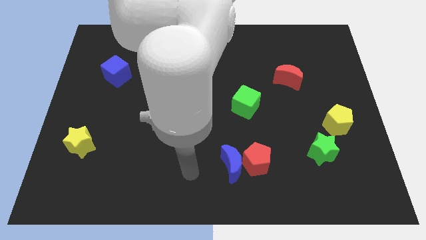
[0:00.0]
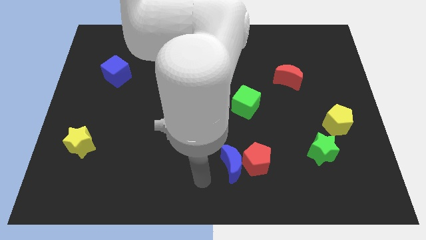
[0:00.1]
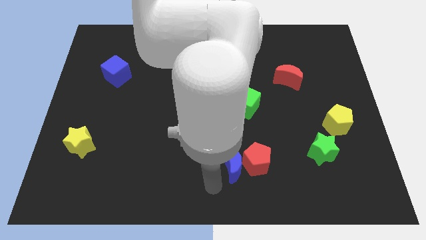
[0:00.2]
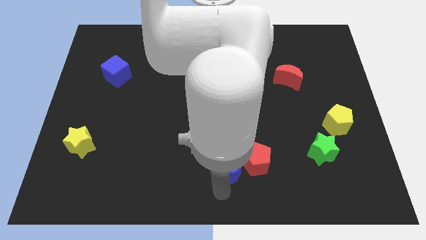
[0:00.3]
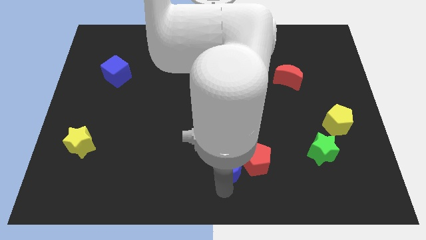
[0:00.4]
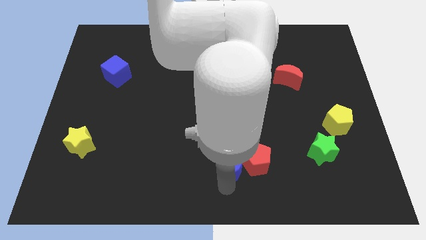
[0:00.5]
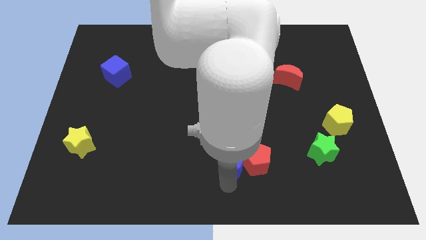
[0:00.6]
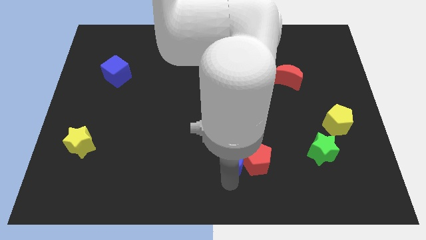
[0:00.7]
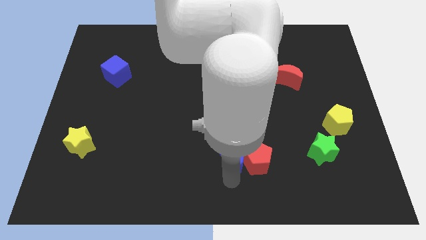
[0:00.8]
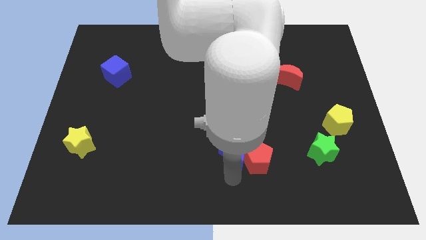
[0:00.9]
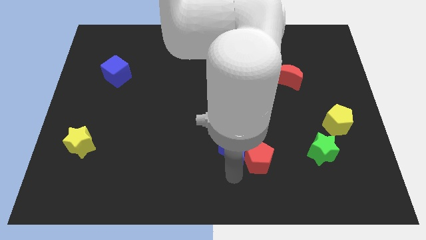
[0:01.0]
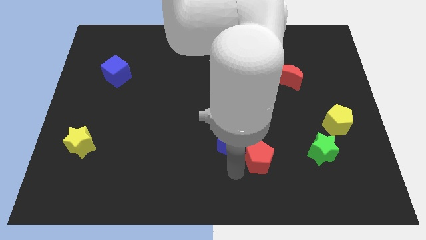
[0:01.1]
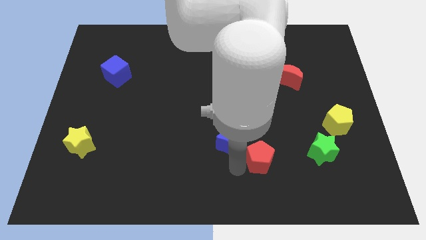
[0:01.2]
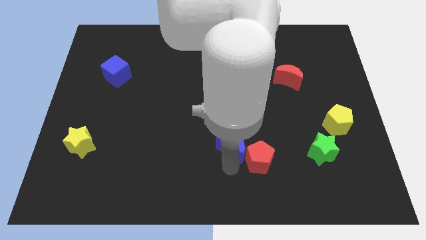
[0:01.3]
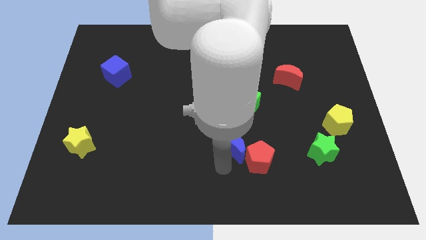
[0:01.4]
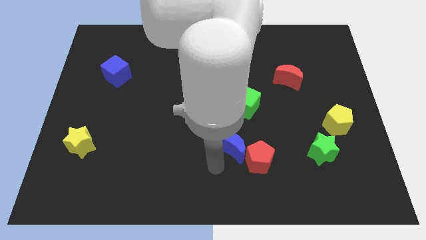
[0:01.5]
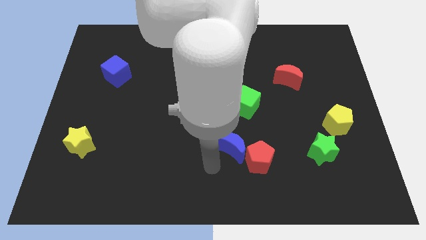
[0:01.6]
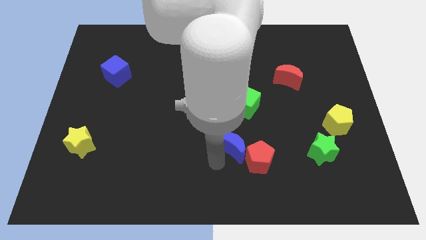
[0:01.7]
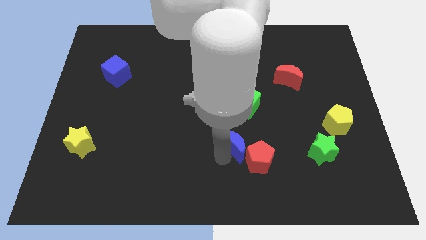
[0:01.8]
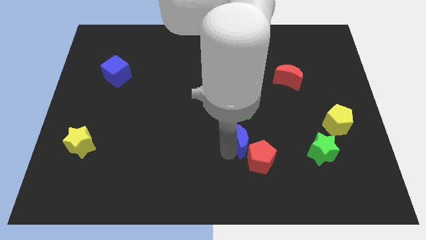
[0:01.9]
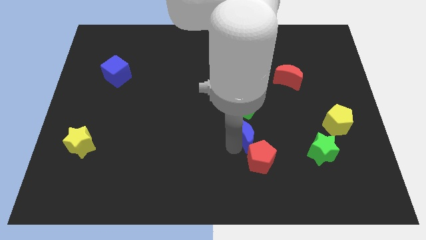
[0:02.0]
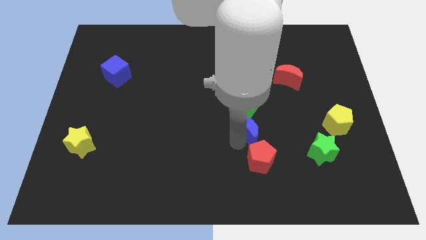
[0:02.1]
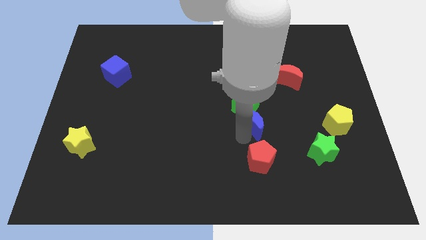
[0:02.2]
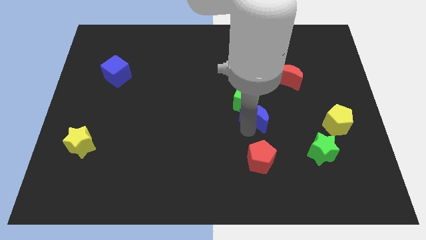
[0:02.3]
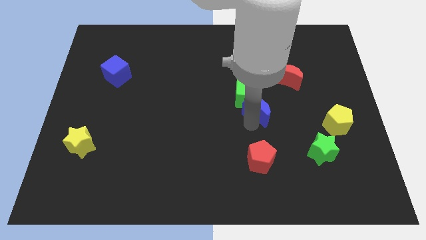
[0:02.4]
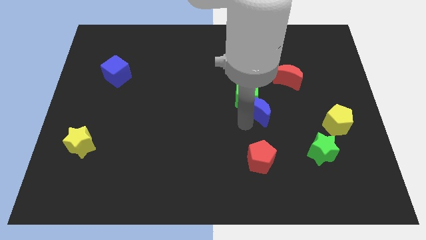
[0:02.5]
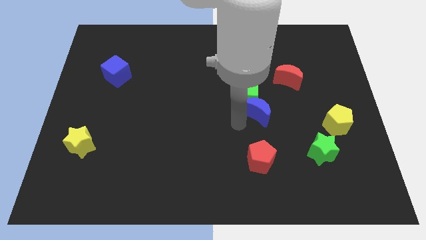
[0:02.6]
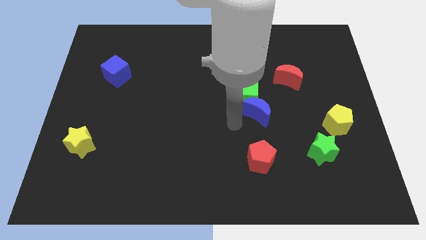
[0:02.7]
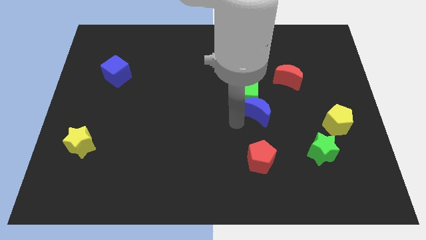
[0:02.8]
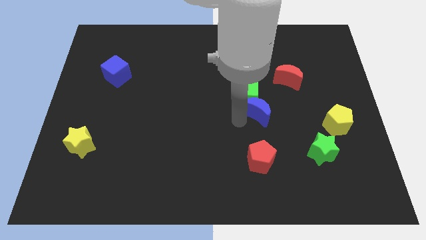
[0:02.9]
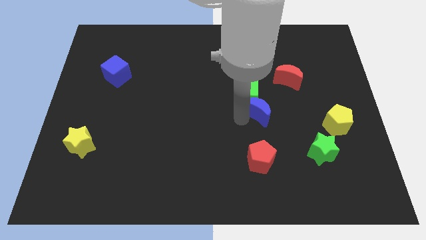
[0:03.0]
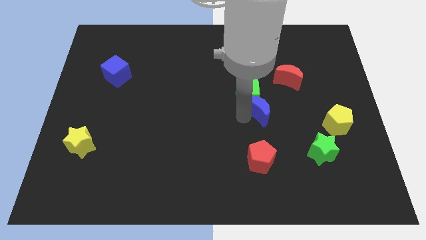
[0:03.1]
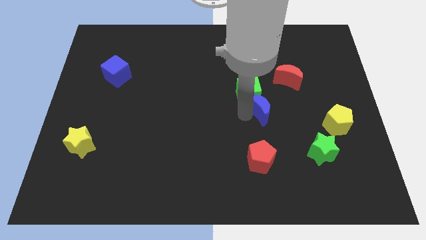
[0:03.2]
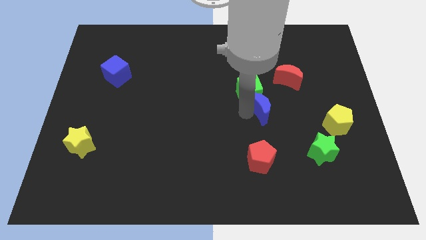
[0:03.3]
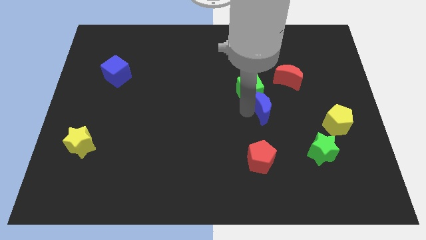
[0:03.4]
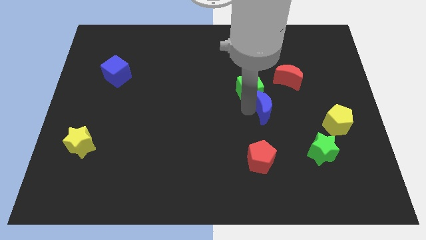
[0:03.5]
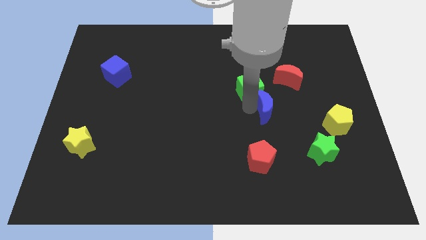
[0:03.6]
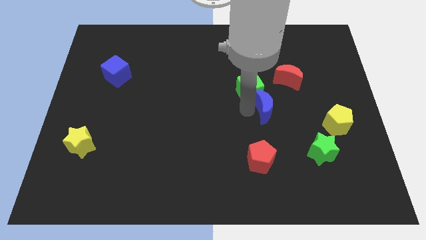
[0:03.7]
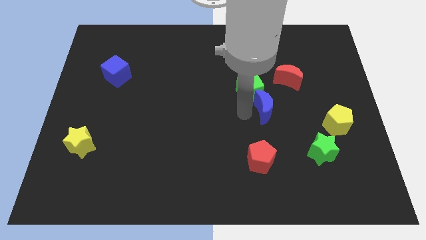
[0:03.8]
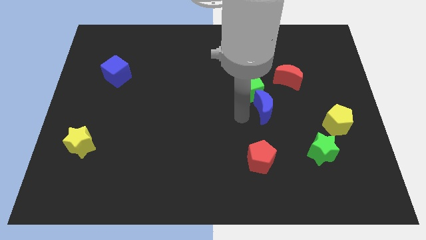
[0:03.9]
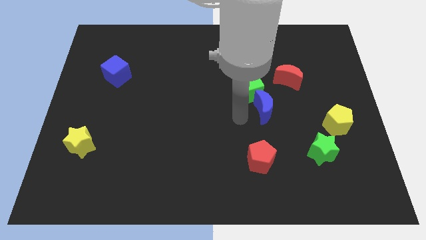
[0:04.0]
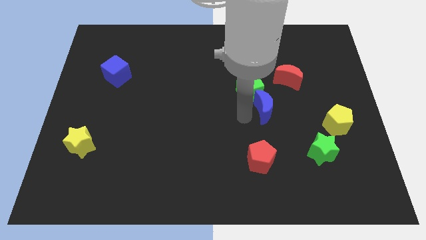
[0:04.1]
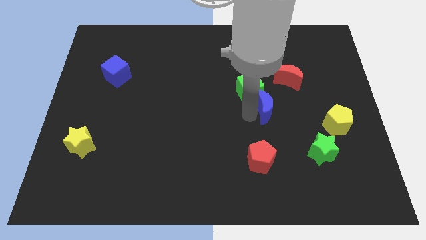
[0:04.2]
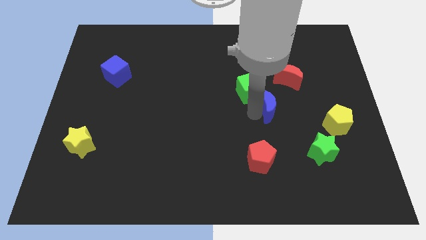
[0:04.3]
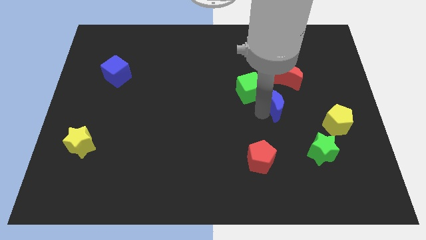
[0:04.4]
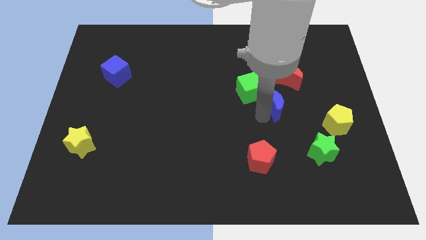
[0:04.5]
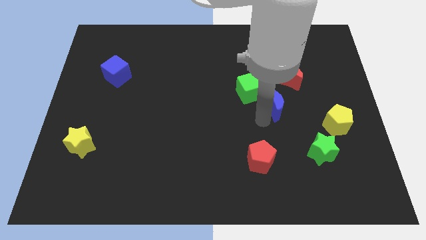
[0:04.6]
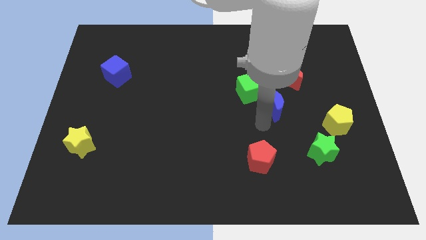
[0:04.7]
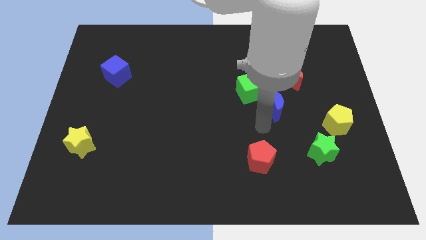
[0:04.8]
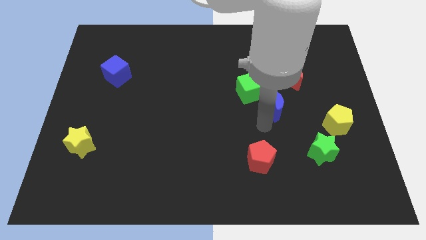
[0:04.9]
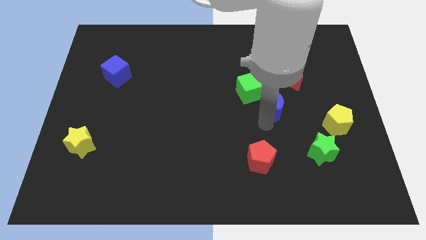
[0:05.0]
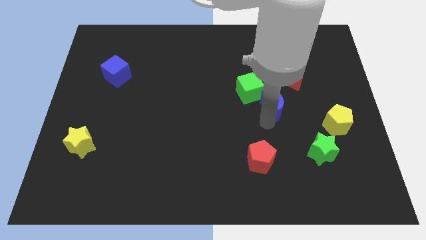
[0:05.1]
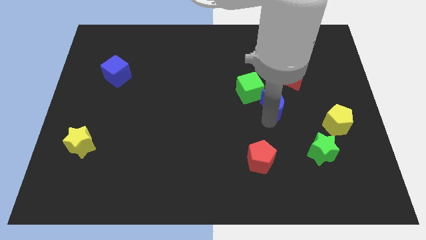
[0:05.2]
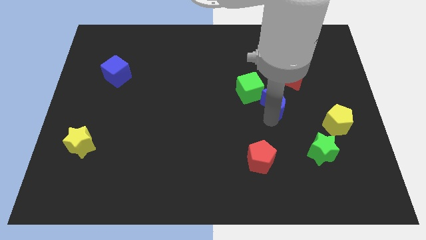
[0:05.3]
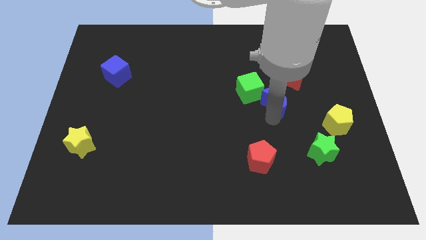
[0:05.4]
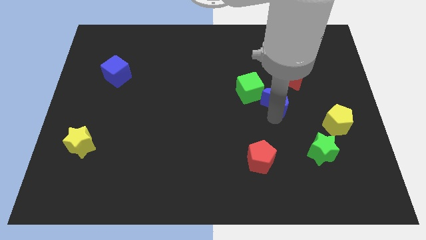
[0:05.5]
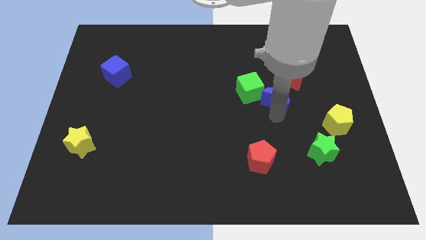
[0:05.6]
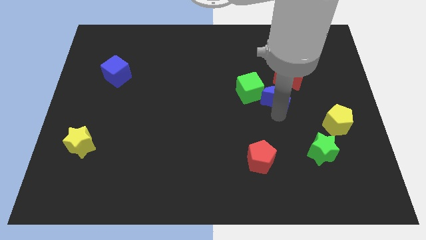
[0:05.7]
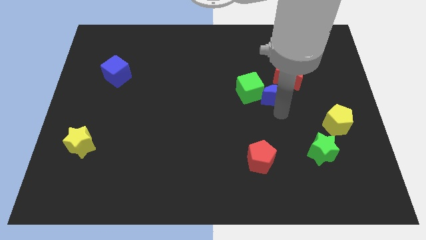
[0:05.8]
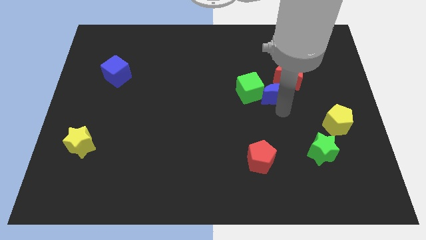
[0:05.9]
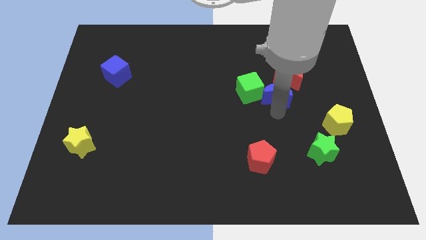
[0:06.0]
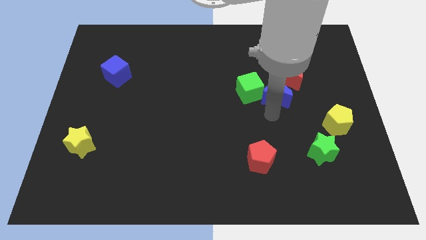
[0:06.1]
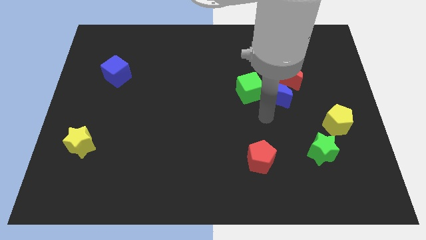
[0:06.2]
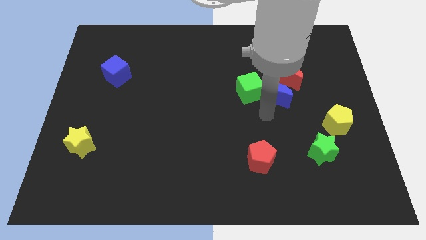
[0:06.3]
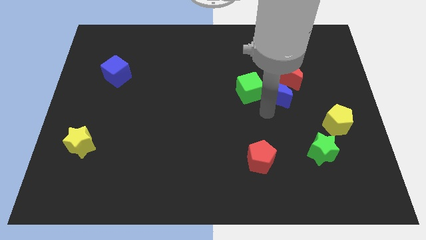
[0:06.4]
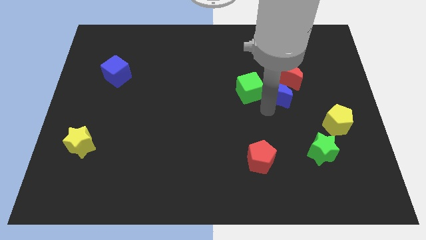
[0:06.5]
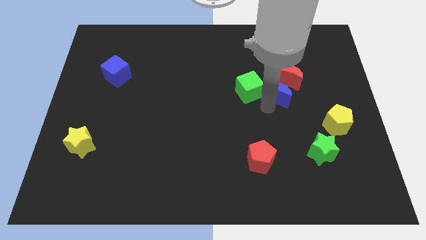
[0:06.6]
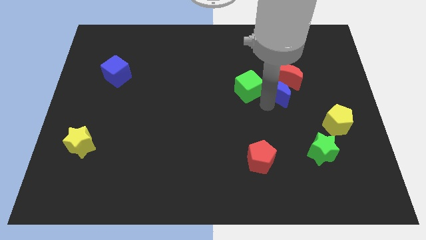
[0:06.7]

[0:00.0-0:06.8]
put the blue moon next to the red moon

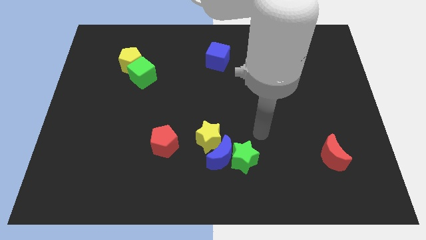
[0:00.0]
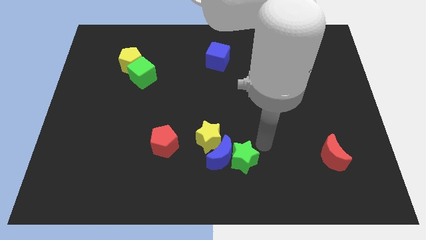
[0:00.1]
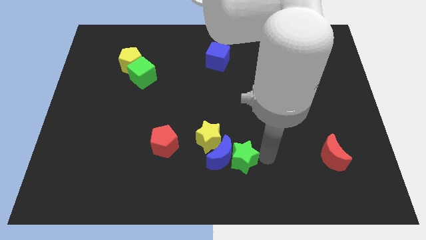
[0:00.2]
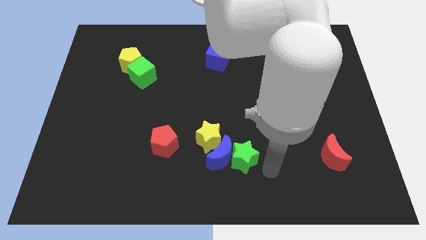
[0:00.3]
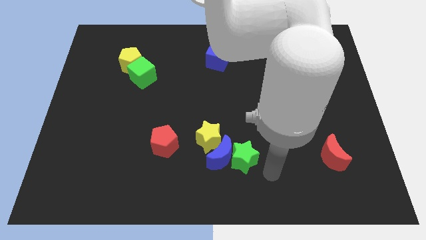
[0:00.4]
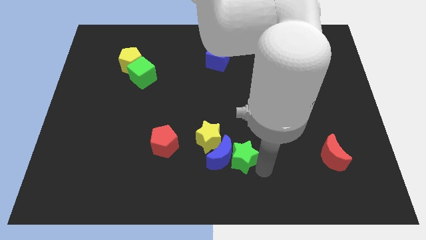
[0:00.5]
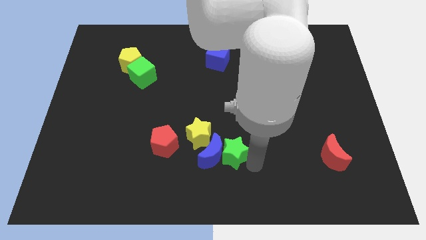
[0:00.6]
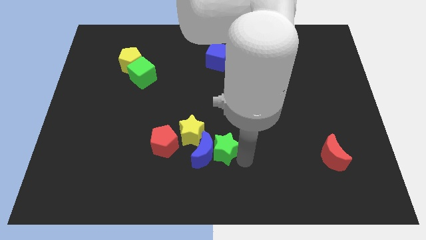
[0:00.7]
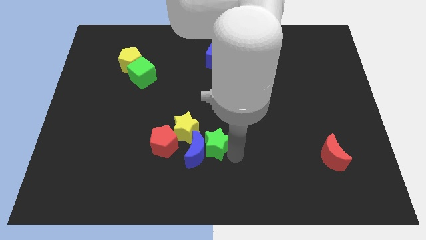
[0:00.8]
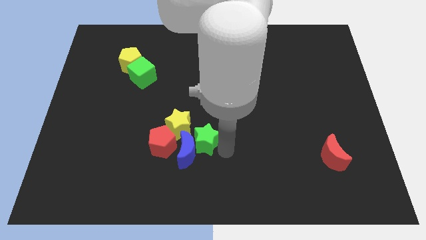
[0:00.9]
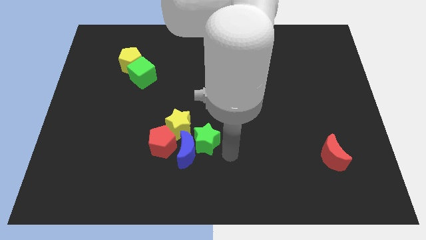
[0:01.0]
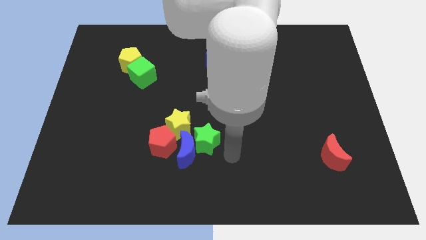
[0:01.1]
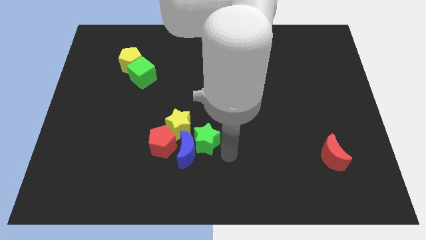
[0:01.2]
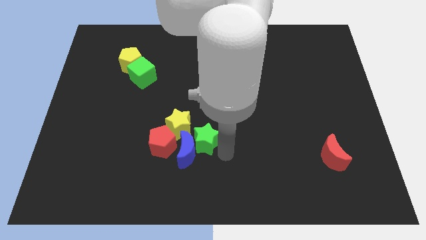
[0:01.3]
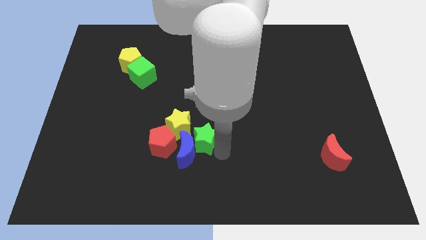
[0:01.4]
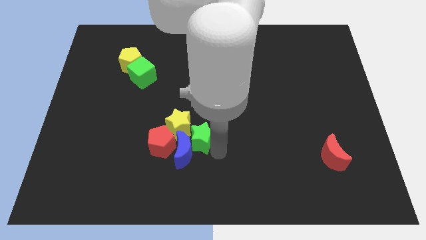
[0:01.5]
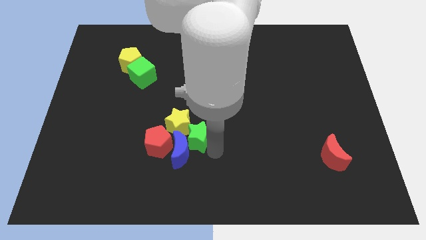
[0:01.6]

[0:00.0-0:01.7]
slide the green star to the yellow star
